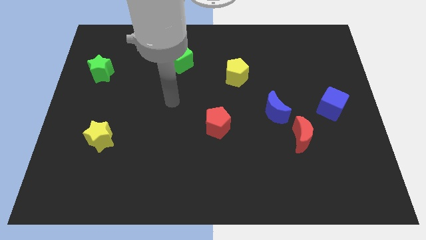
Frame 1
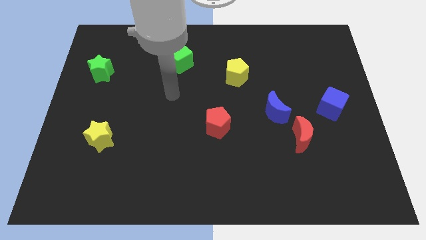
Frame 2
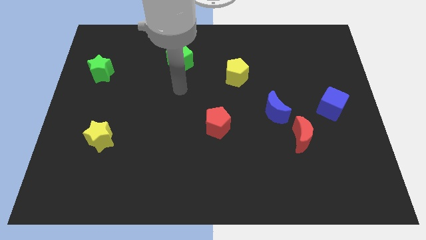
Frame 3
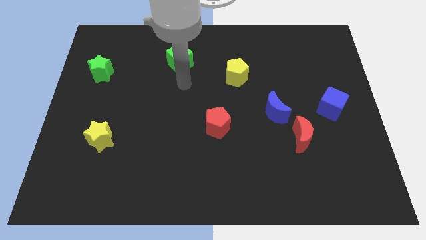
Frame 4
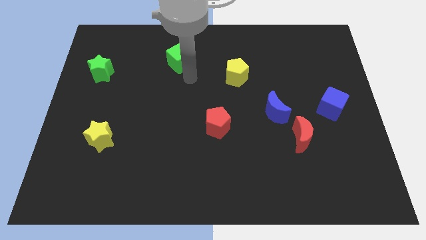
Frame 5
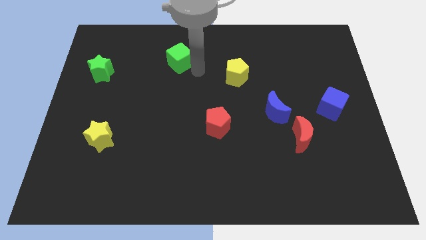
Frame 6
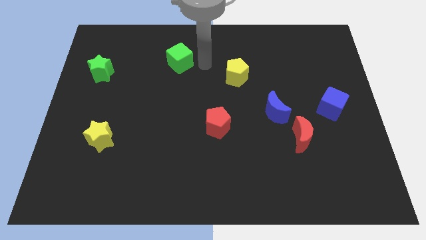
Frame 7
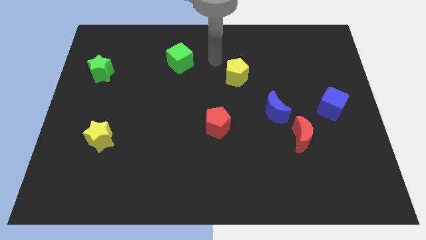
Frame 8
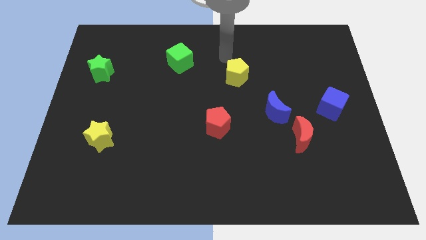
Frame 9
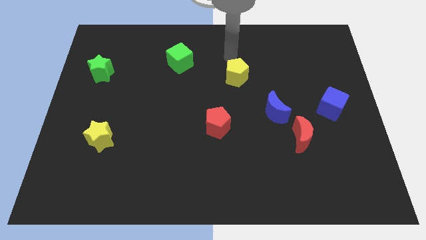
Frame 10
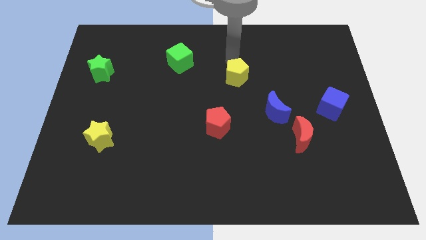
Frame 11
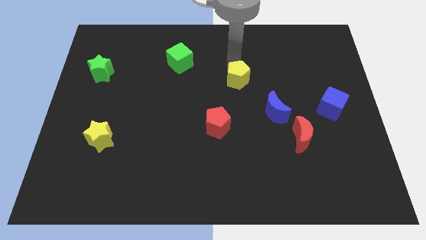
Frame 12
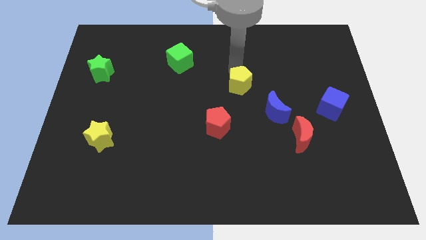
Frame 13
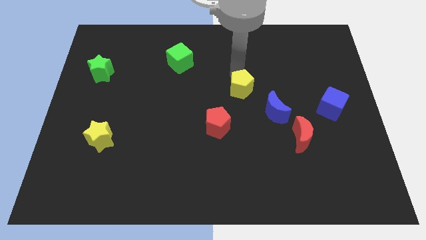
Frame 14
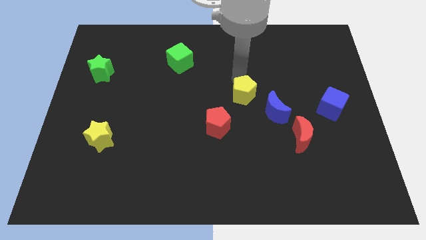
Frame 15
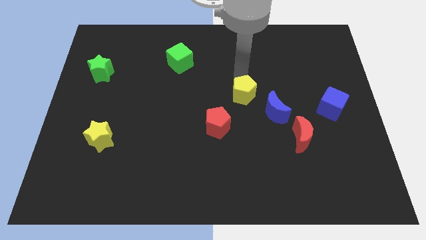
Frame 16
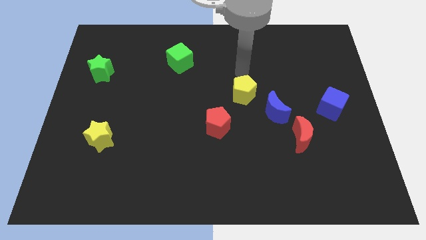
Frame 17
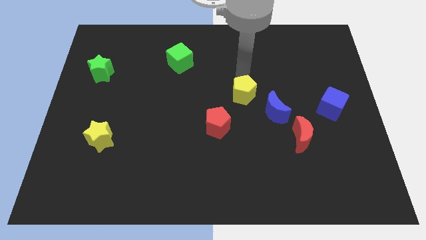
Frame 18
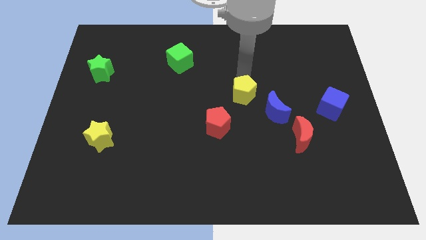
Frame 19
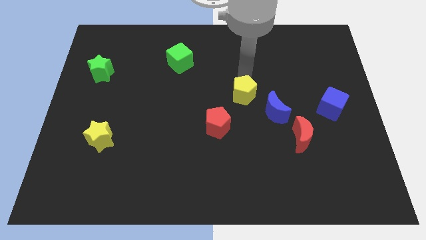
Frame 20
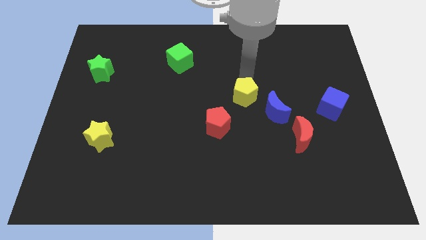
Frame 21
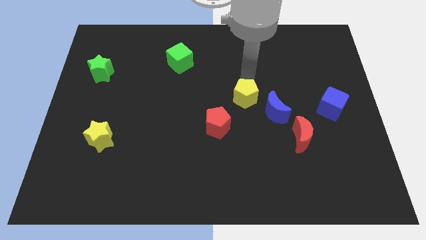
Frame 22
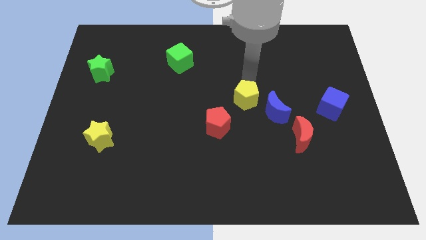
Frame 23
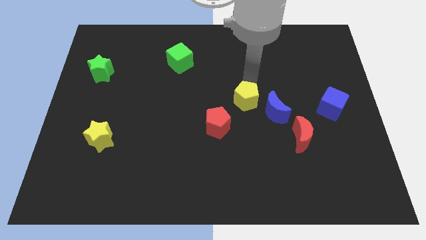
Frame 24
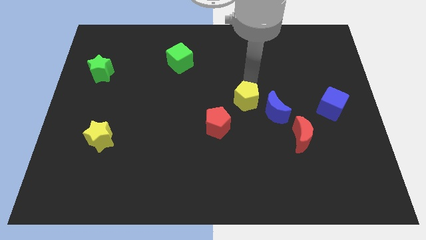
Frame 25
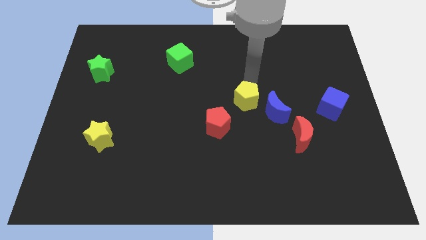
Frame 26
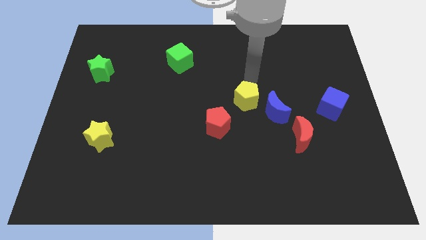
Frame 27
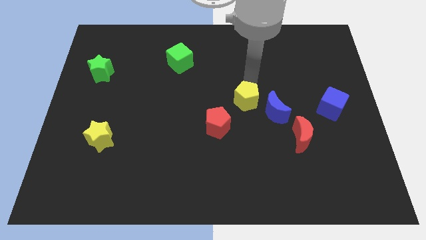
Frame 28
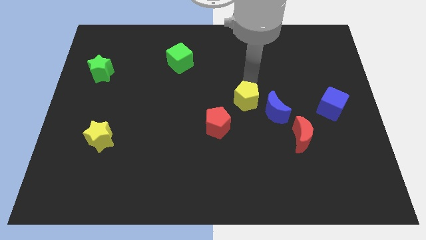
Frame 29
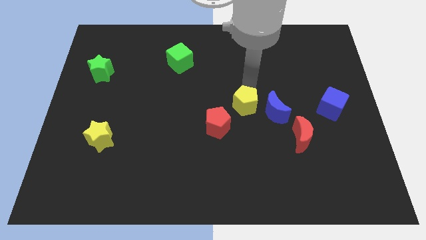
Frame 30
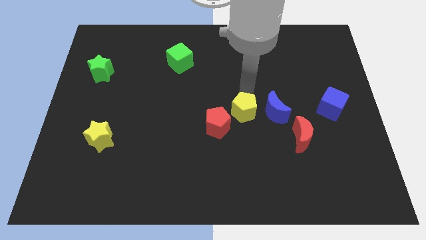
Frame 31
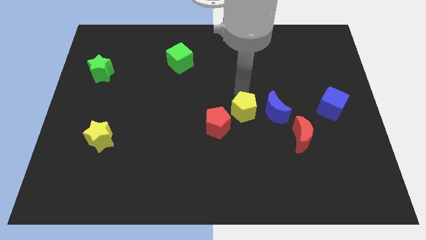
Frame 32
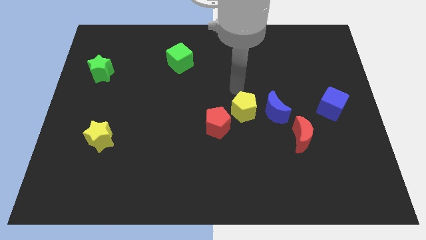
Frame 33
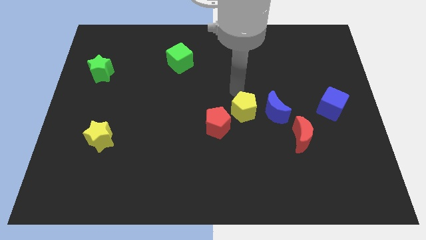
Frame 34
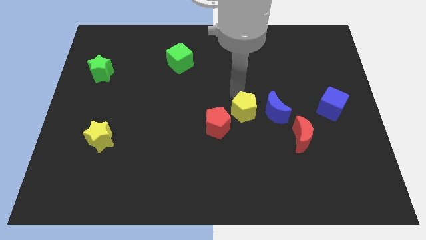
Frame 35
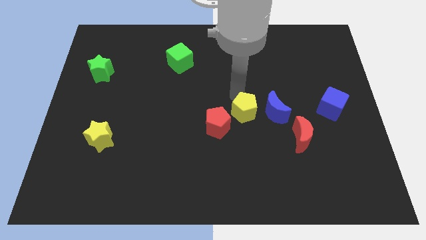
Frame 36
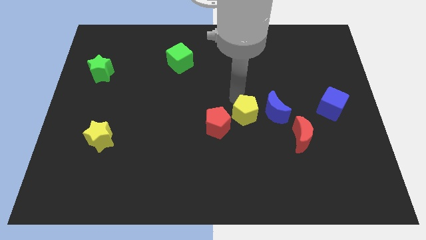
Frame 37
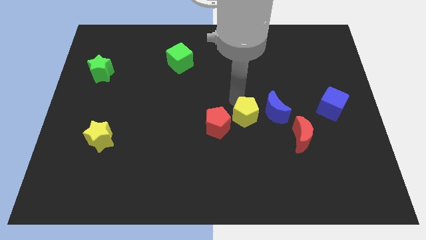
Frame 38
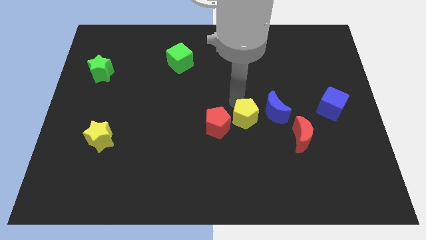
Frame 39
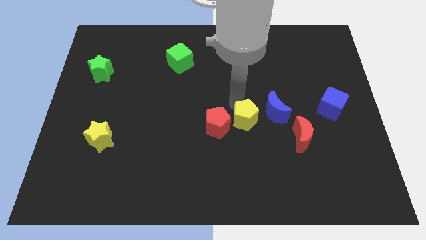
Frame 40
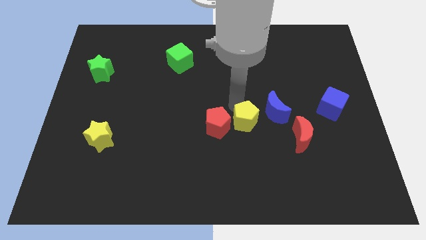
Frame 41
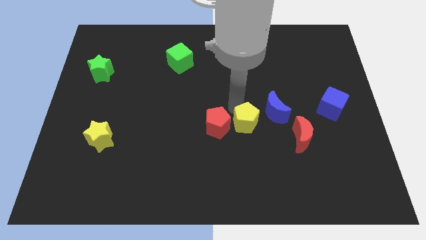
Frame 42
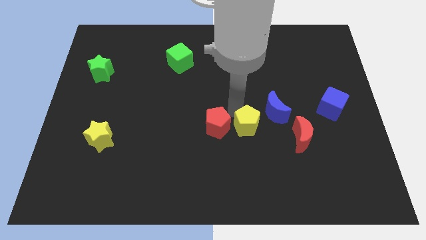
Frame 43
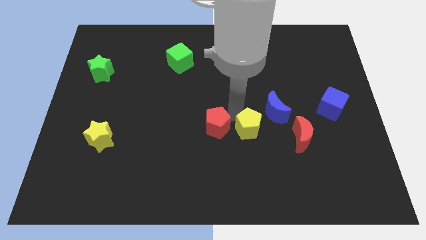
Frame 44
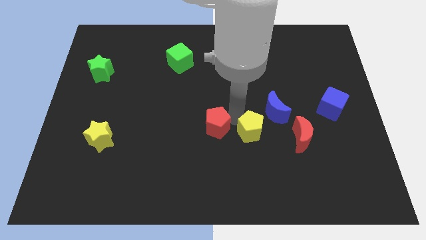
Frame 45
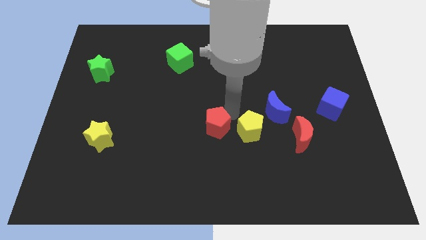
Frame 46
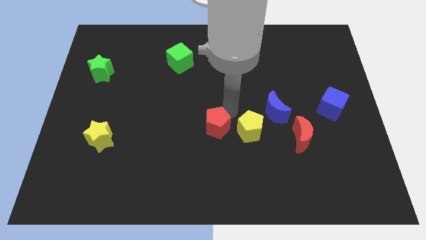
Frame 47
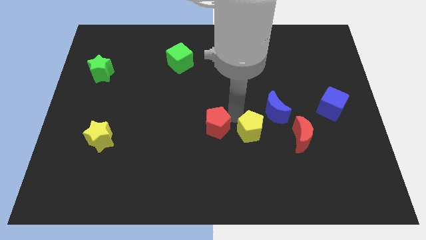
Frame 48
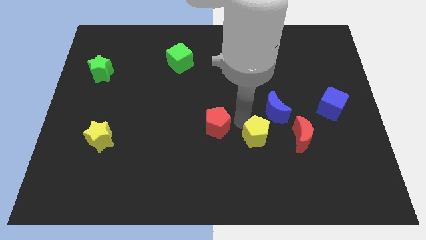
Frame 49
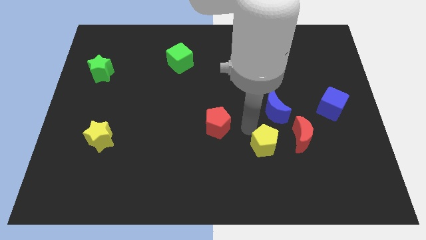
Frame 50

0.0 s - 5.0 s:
move the yellow pentagon to the bottom left of the red moon

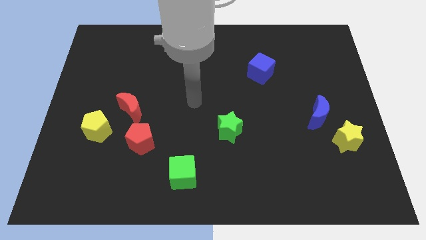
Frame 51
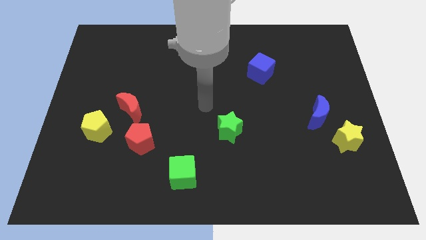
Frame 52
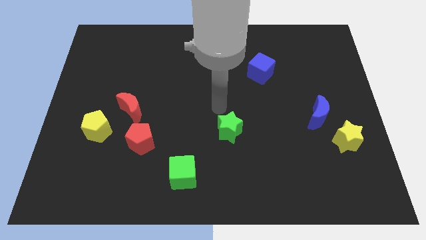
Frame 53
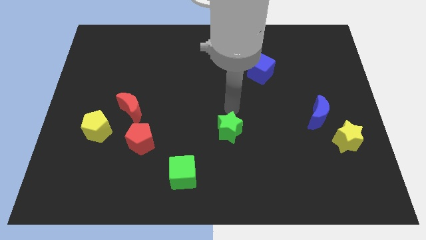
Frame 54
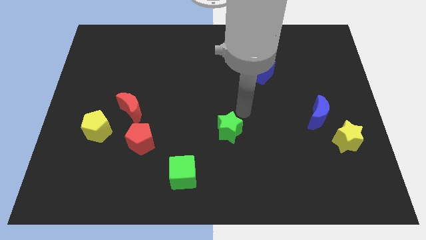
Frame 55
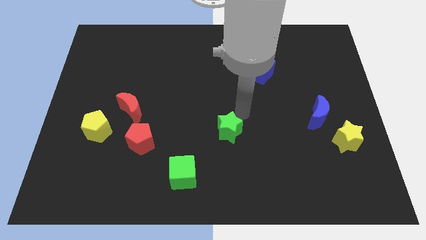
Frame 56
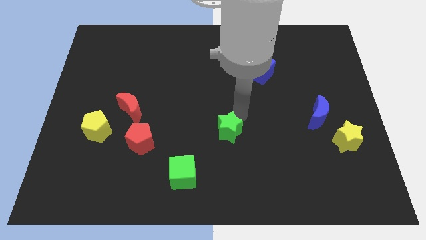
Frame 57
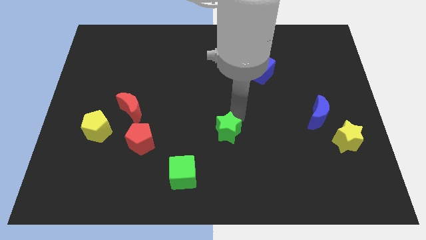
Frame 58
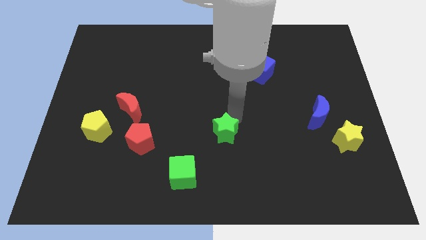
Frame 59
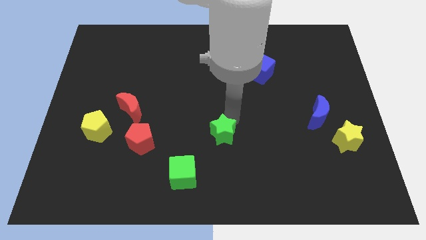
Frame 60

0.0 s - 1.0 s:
put the green star to the top right of the green cube

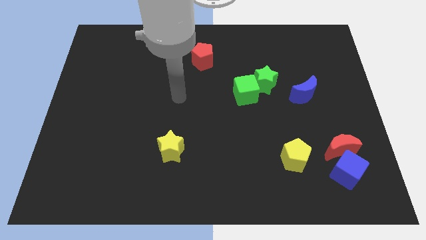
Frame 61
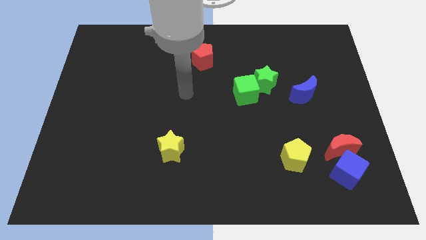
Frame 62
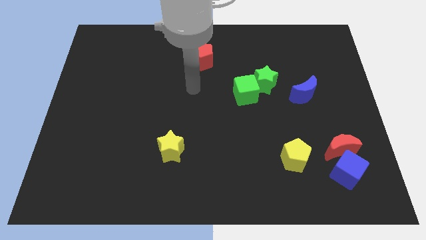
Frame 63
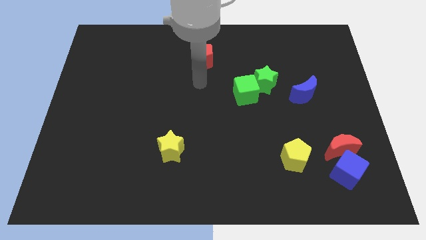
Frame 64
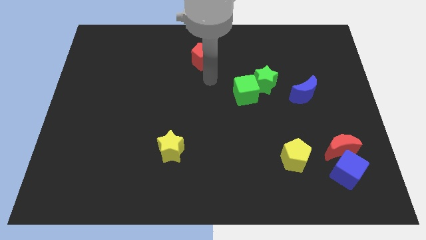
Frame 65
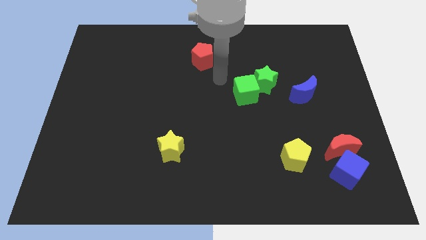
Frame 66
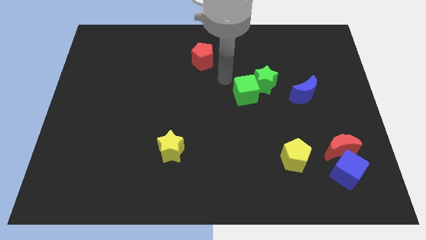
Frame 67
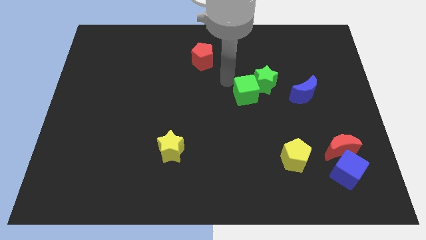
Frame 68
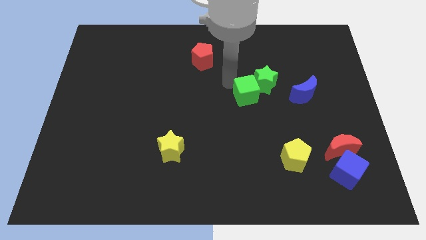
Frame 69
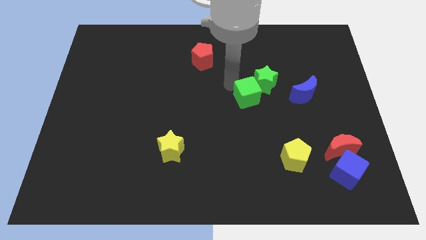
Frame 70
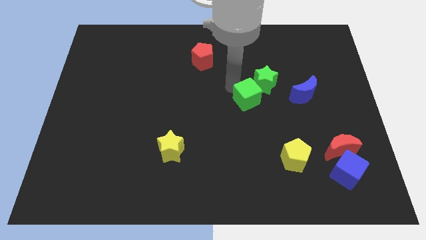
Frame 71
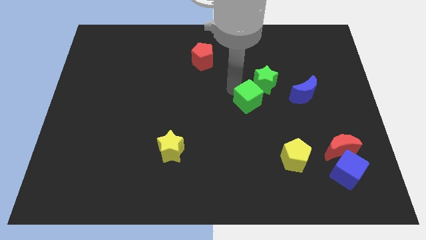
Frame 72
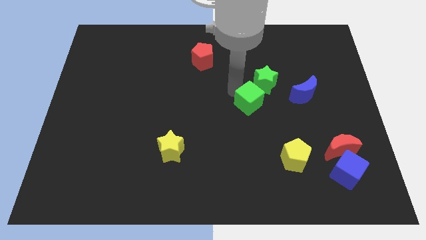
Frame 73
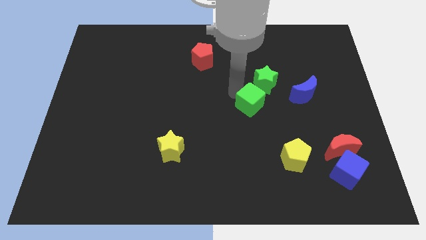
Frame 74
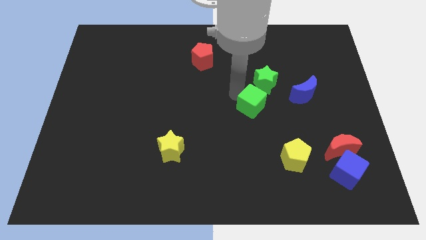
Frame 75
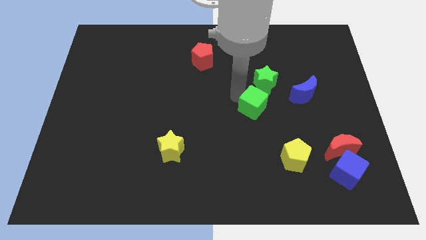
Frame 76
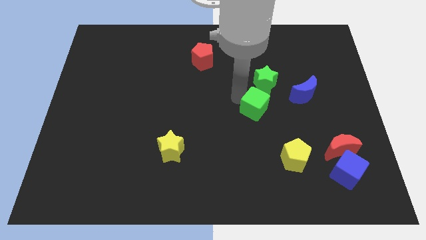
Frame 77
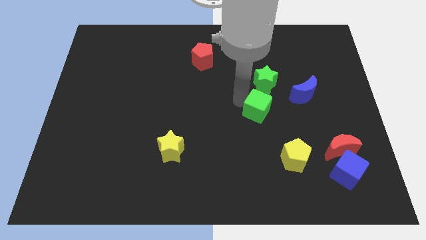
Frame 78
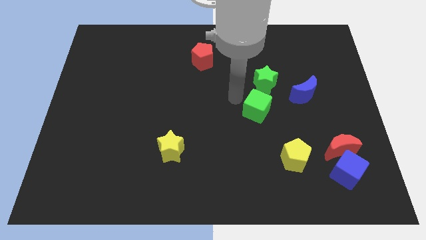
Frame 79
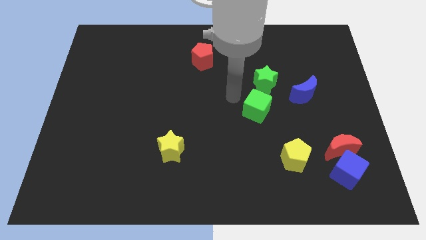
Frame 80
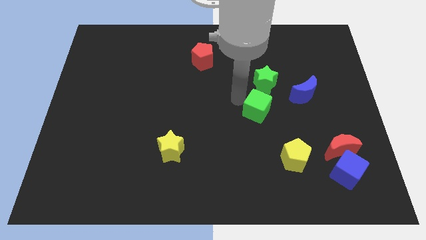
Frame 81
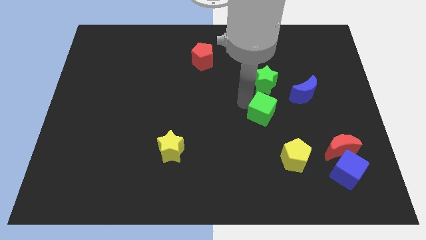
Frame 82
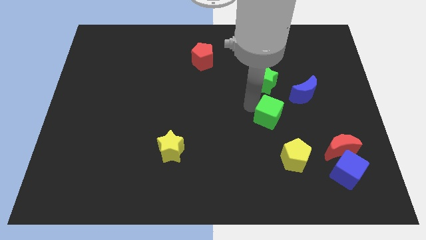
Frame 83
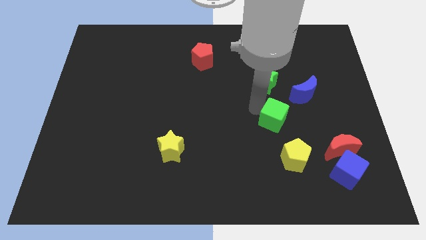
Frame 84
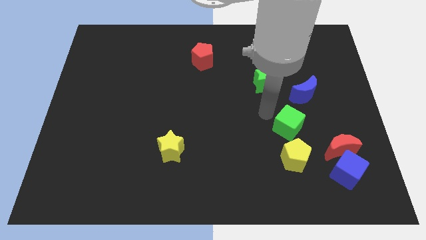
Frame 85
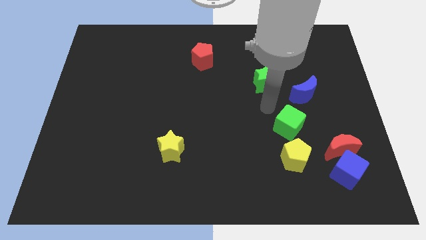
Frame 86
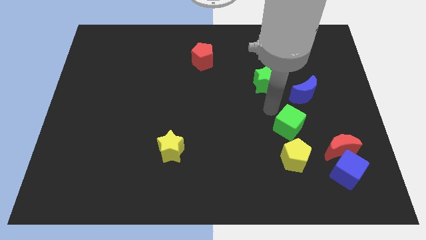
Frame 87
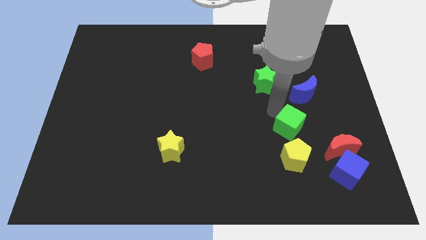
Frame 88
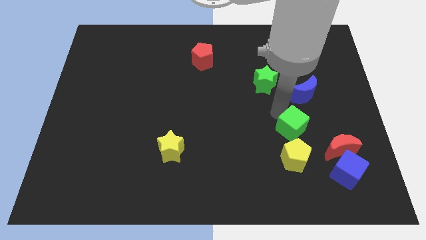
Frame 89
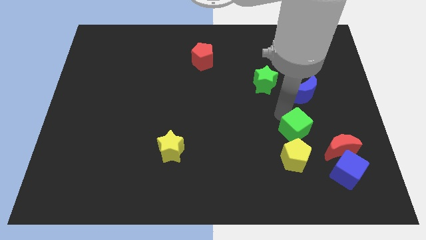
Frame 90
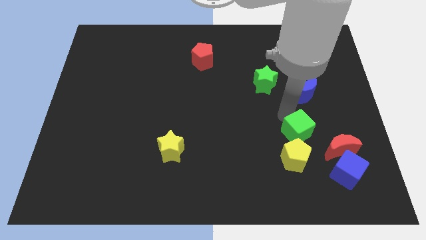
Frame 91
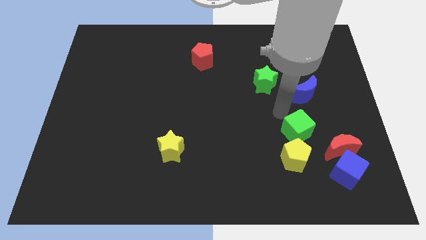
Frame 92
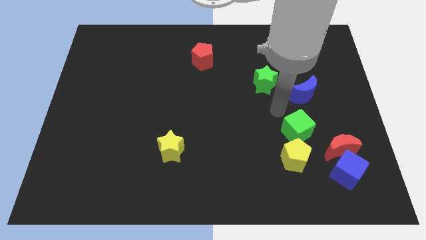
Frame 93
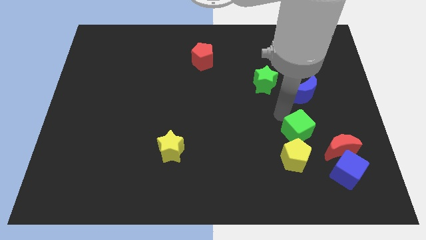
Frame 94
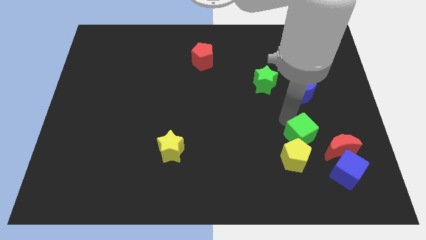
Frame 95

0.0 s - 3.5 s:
slide the green cube to the top left of the blue cube
